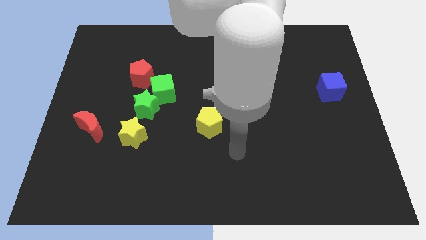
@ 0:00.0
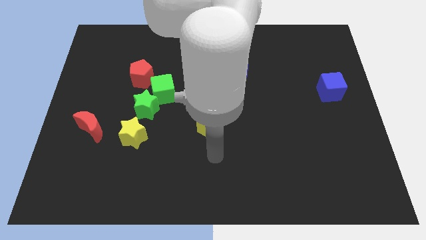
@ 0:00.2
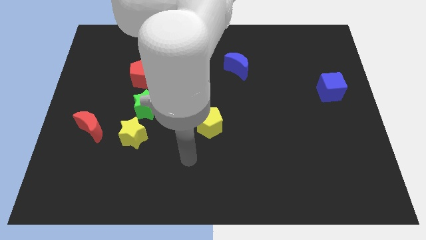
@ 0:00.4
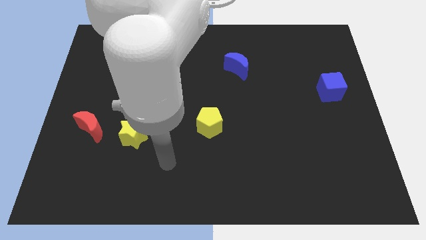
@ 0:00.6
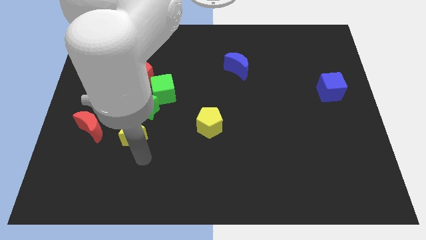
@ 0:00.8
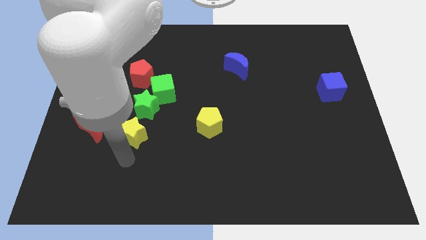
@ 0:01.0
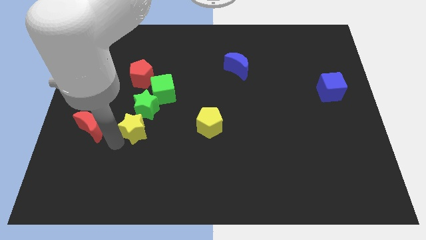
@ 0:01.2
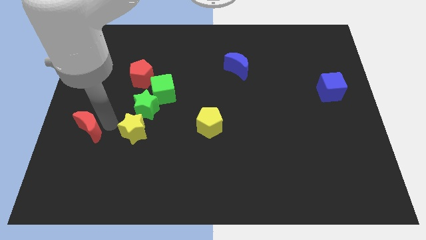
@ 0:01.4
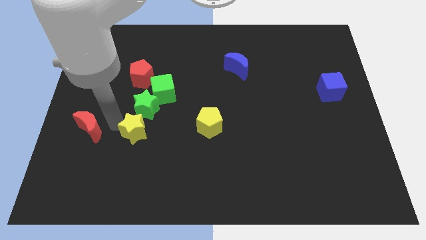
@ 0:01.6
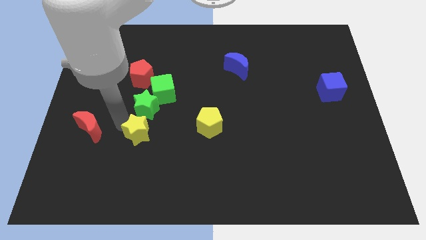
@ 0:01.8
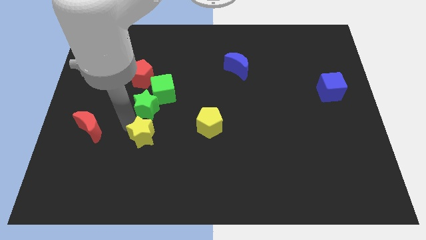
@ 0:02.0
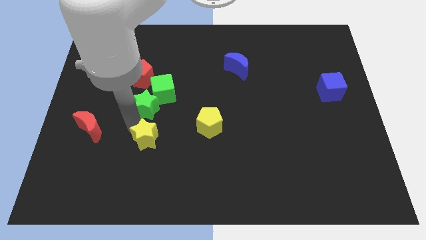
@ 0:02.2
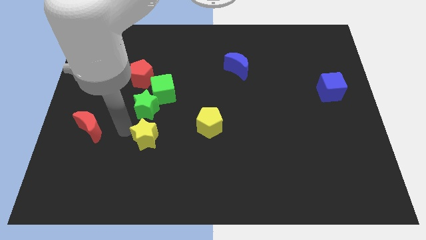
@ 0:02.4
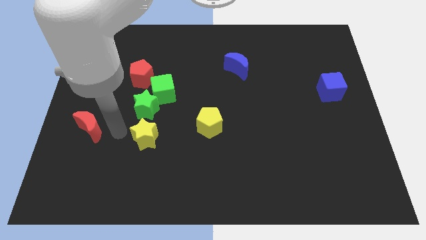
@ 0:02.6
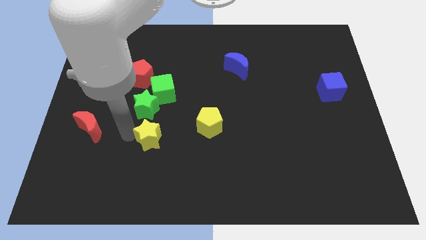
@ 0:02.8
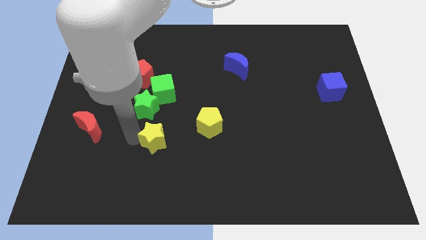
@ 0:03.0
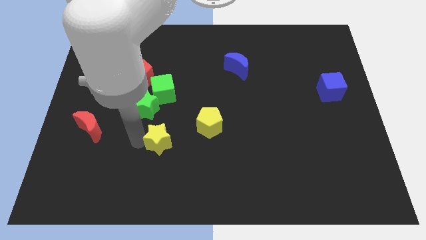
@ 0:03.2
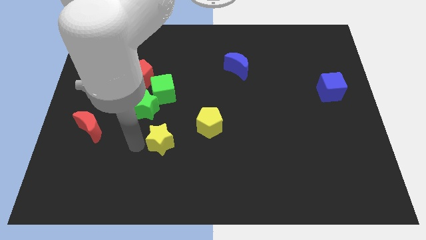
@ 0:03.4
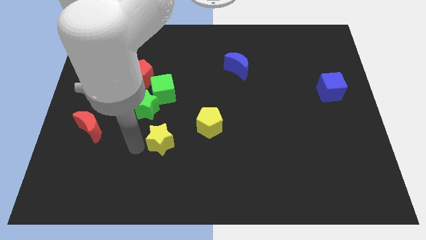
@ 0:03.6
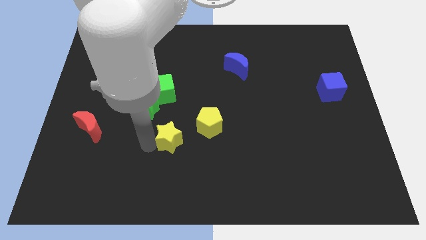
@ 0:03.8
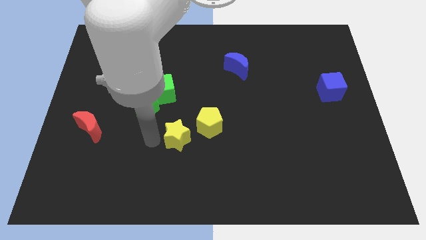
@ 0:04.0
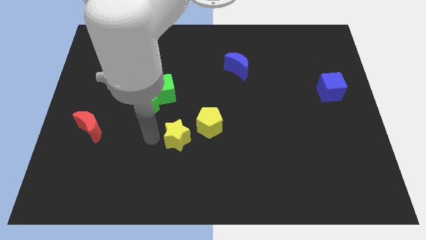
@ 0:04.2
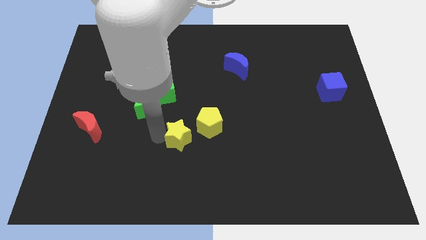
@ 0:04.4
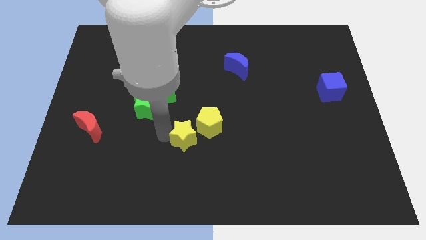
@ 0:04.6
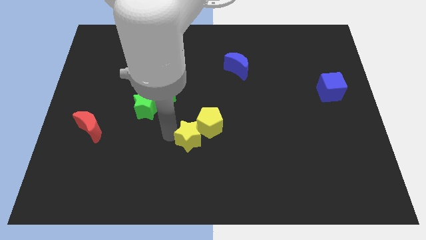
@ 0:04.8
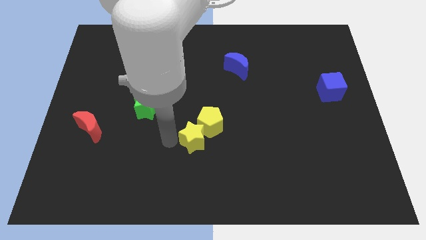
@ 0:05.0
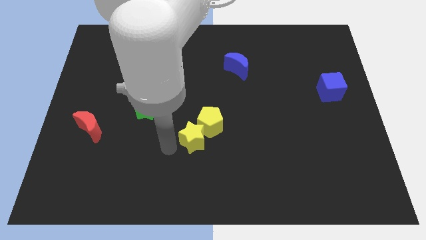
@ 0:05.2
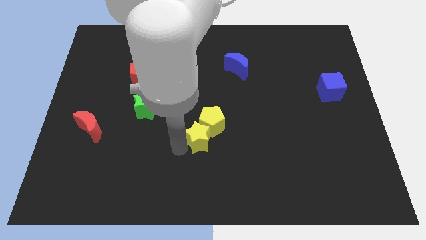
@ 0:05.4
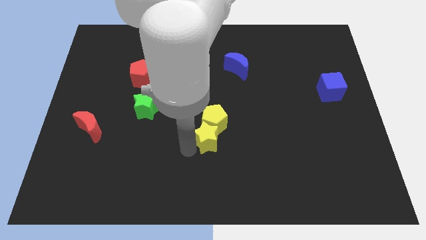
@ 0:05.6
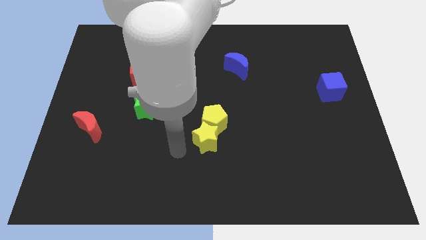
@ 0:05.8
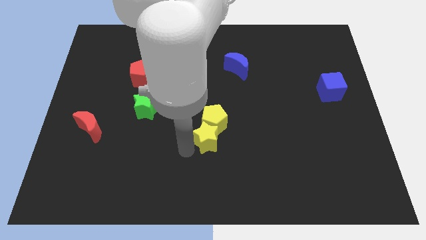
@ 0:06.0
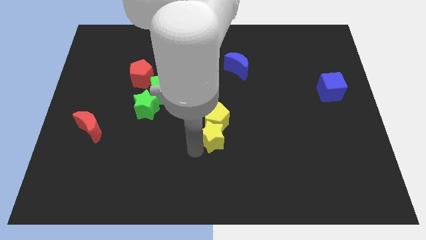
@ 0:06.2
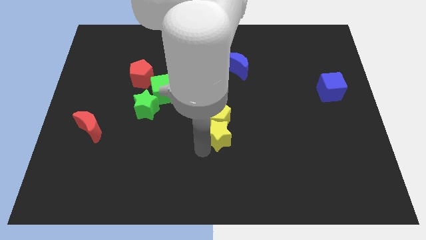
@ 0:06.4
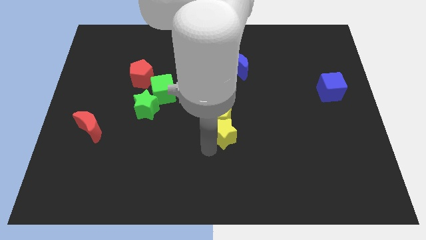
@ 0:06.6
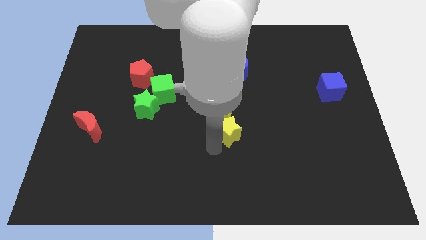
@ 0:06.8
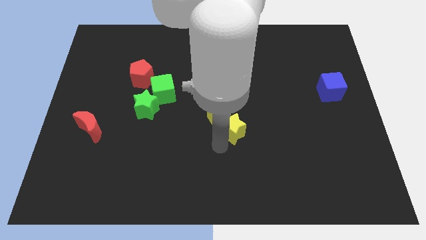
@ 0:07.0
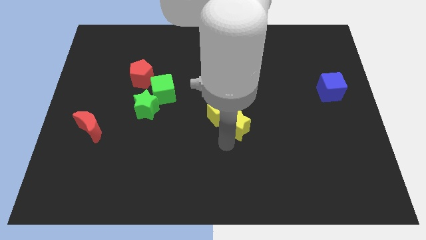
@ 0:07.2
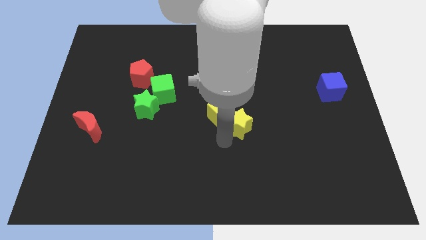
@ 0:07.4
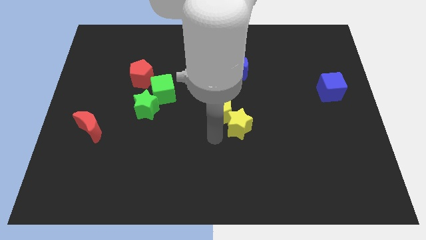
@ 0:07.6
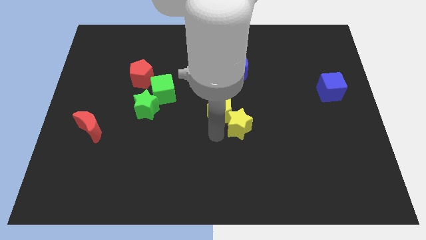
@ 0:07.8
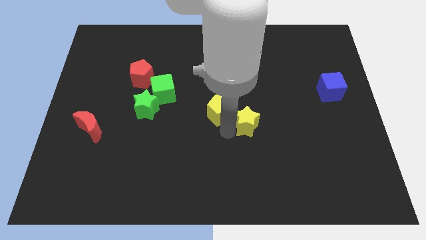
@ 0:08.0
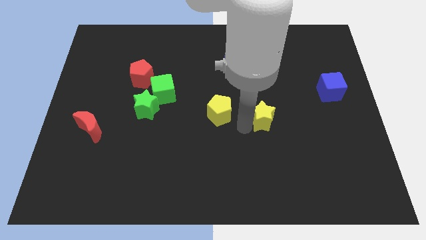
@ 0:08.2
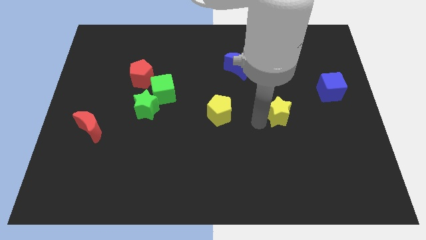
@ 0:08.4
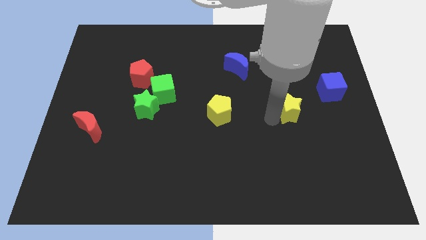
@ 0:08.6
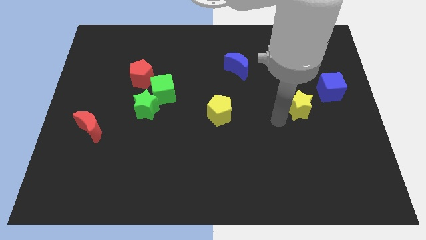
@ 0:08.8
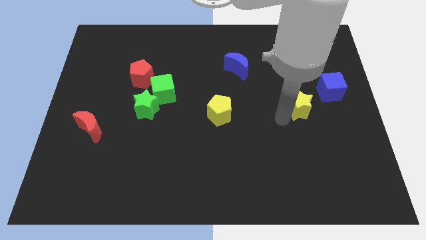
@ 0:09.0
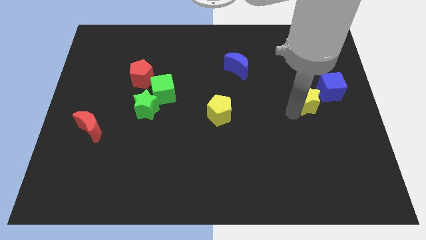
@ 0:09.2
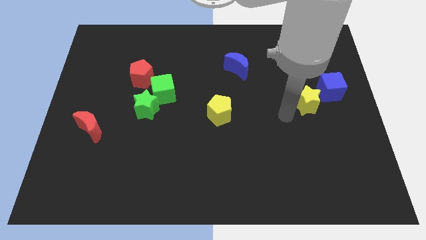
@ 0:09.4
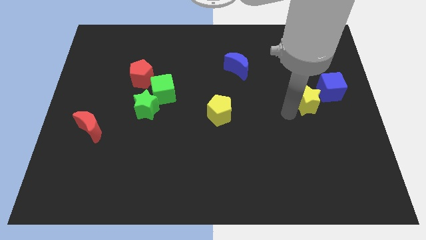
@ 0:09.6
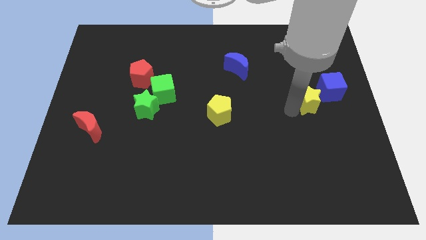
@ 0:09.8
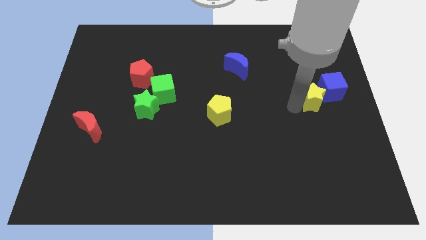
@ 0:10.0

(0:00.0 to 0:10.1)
put the yellow star to the blue cube

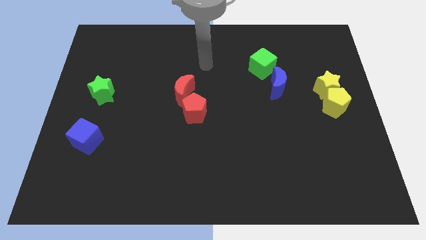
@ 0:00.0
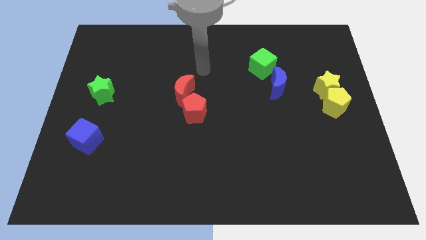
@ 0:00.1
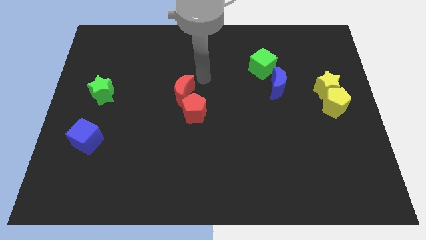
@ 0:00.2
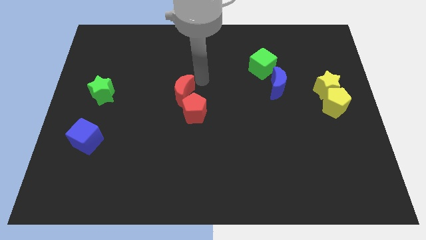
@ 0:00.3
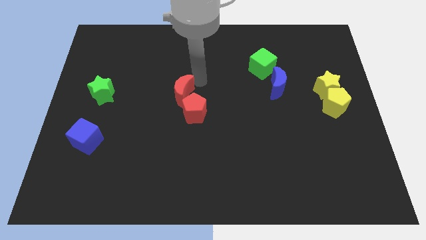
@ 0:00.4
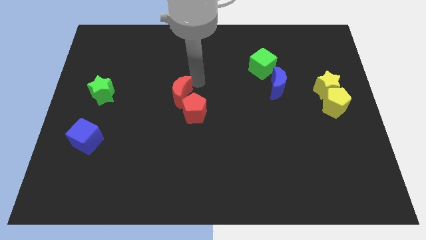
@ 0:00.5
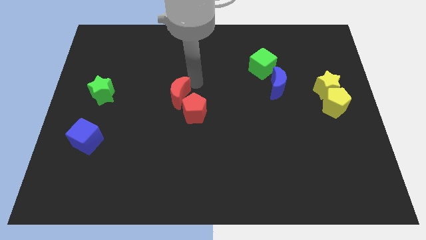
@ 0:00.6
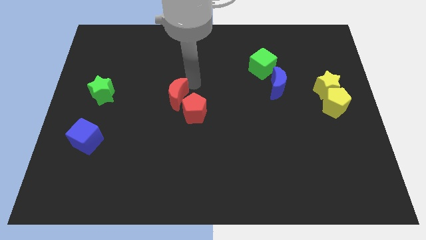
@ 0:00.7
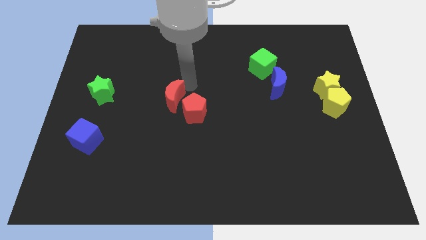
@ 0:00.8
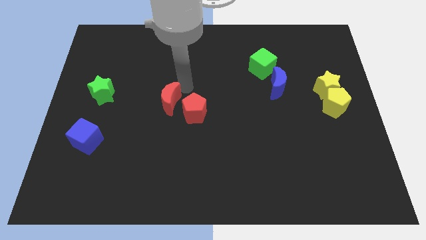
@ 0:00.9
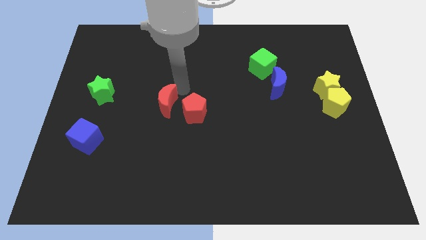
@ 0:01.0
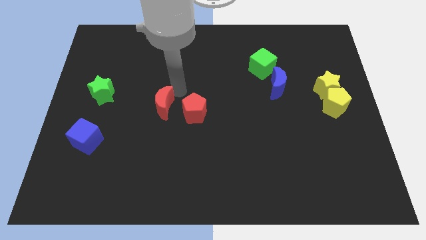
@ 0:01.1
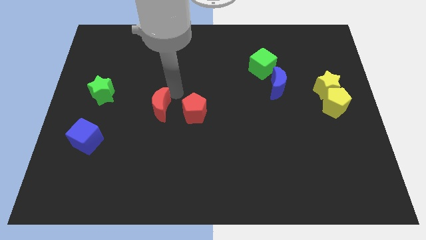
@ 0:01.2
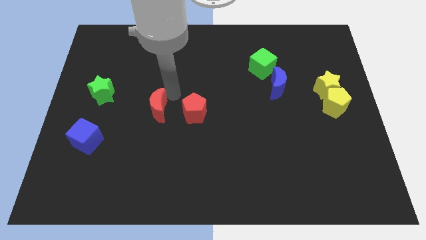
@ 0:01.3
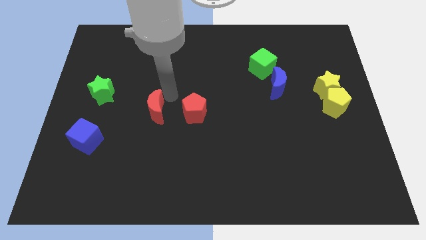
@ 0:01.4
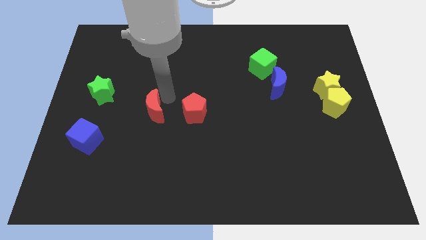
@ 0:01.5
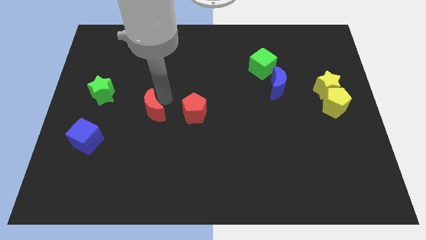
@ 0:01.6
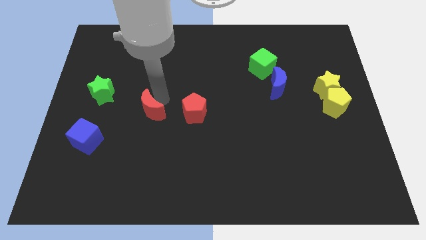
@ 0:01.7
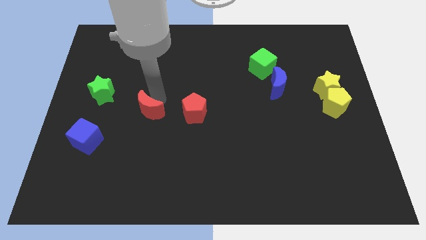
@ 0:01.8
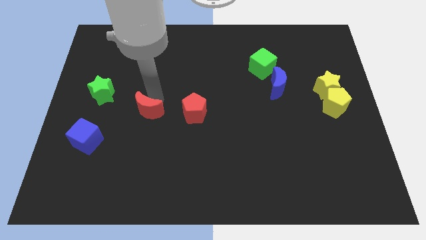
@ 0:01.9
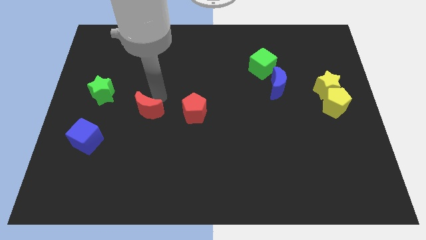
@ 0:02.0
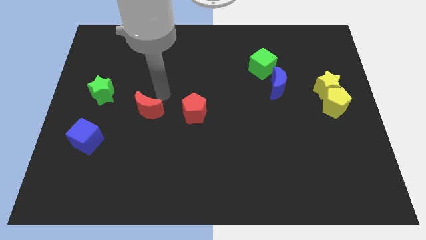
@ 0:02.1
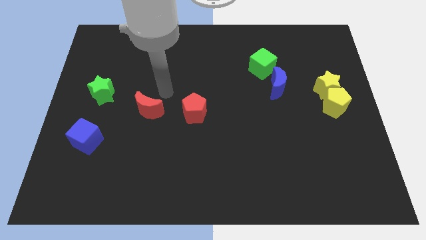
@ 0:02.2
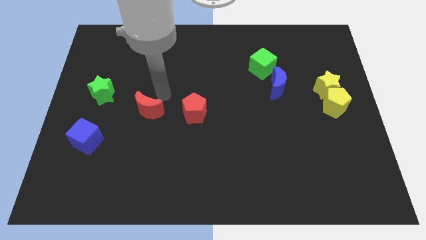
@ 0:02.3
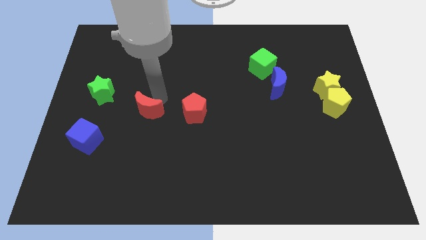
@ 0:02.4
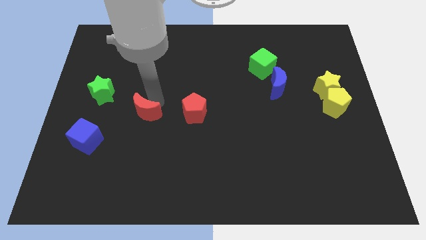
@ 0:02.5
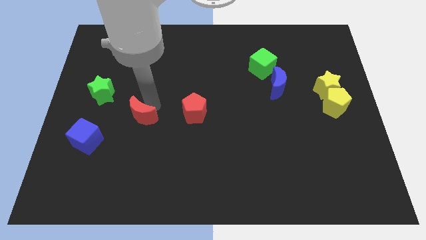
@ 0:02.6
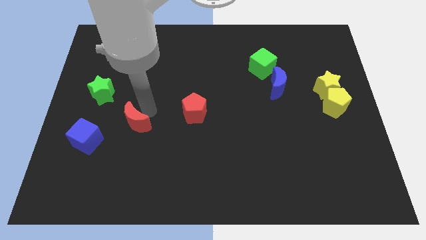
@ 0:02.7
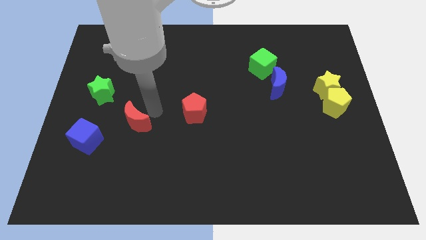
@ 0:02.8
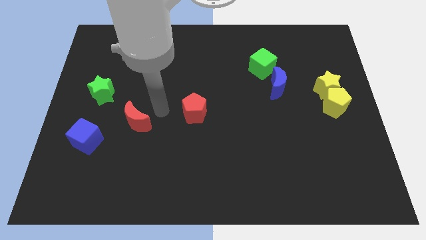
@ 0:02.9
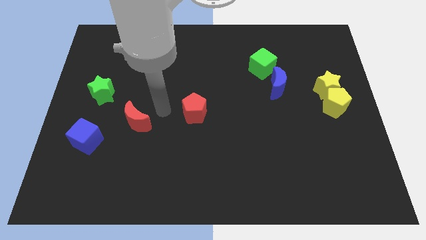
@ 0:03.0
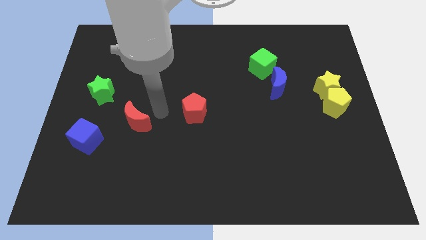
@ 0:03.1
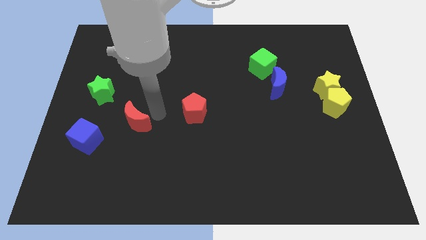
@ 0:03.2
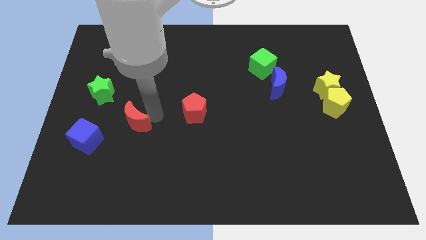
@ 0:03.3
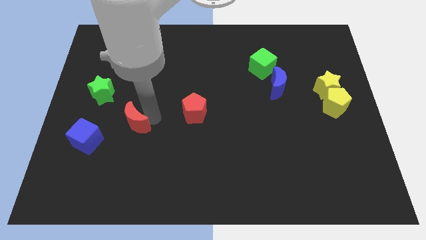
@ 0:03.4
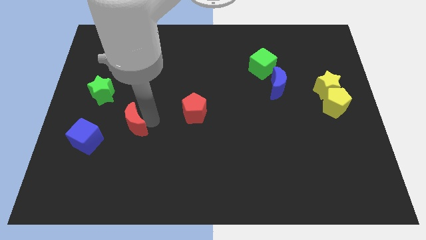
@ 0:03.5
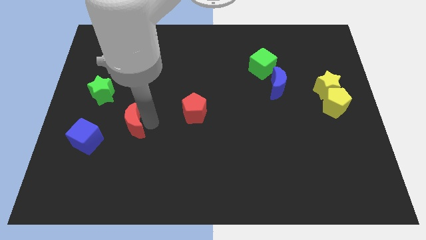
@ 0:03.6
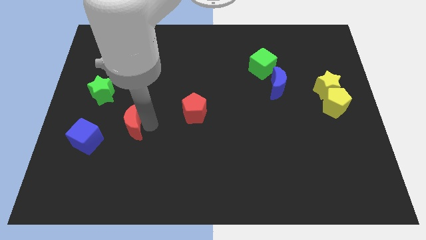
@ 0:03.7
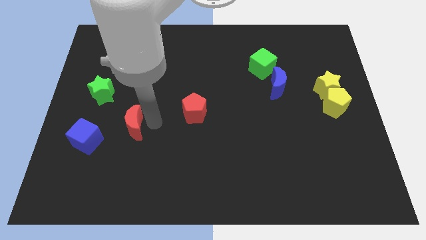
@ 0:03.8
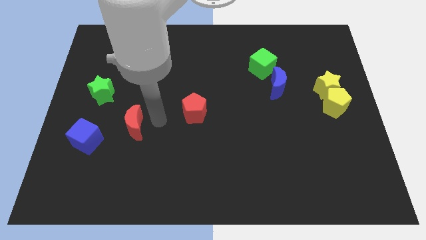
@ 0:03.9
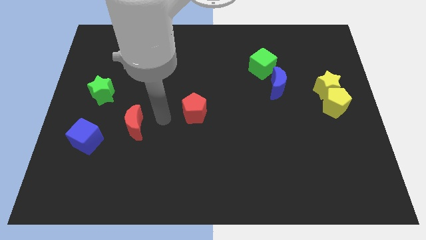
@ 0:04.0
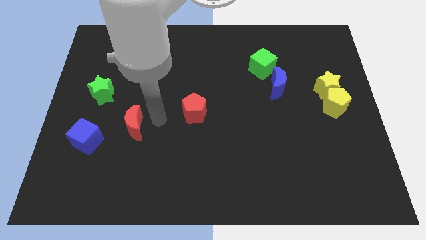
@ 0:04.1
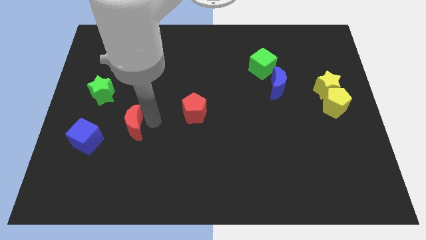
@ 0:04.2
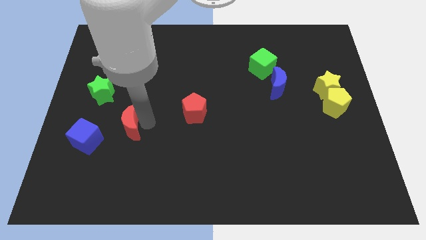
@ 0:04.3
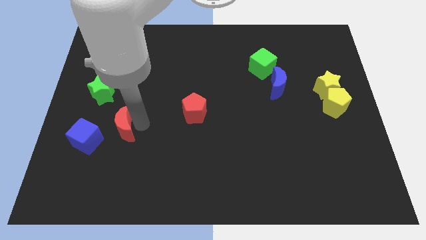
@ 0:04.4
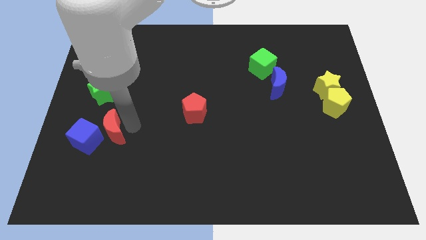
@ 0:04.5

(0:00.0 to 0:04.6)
move the red moon towards the blue cube
